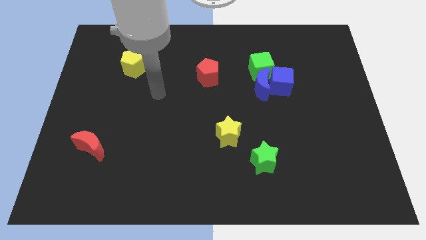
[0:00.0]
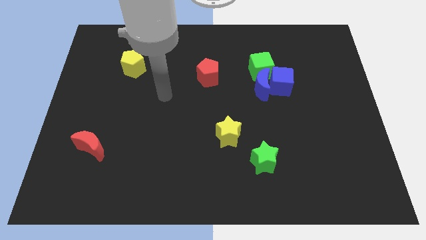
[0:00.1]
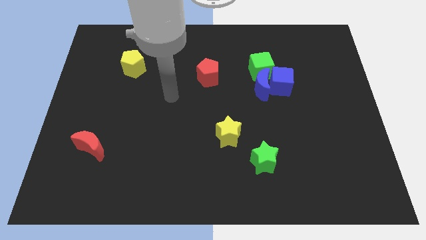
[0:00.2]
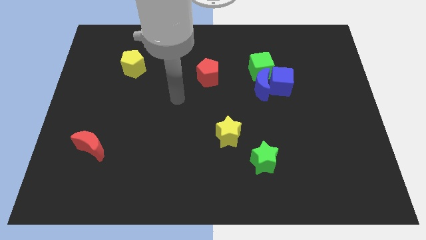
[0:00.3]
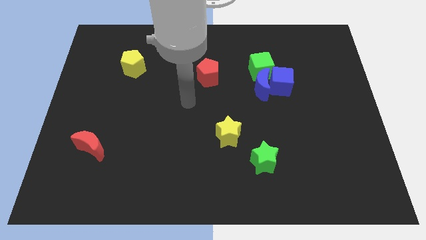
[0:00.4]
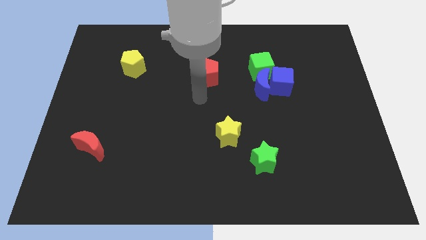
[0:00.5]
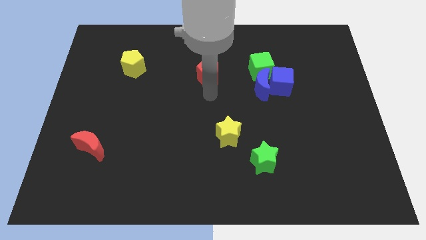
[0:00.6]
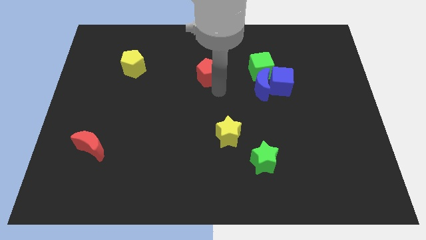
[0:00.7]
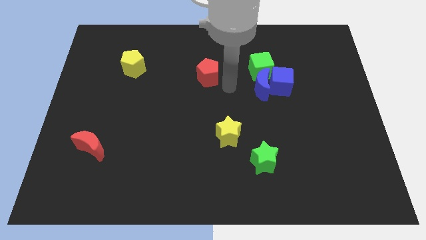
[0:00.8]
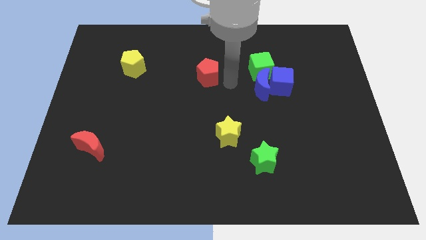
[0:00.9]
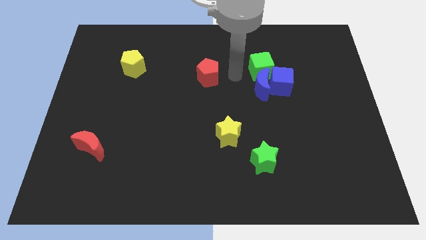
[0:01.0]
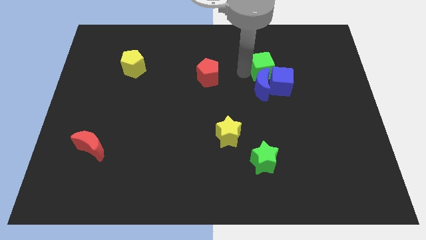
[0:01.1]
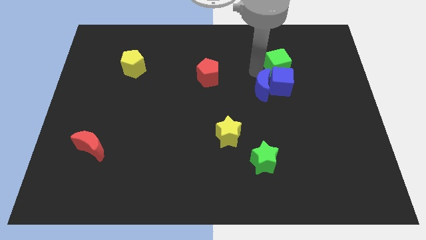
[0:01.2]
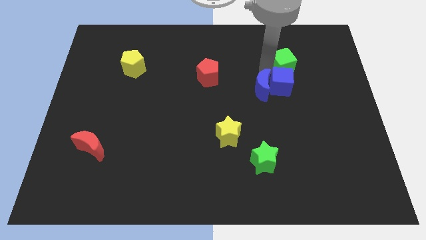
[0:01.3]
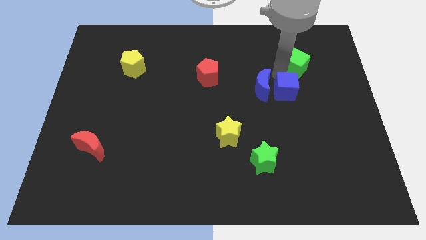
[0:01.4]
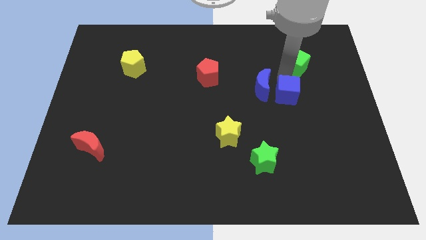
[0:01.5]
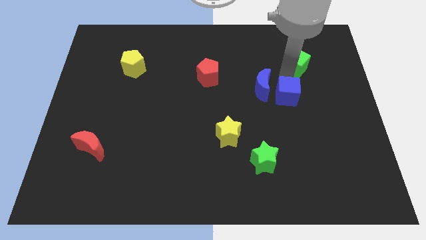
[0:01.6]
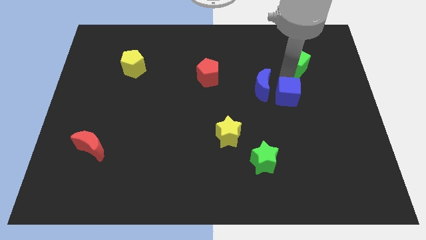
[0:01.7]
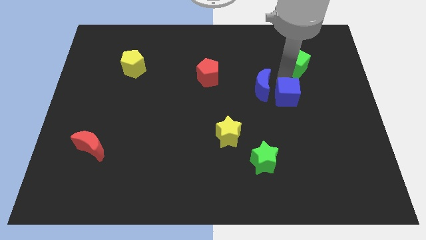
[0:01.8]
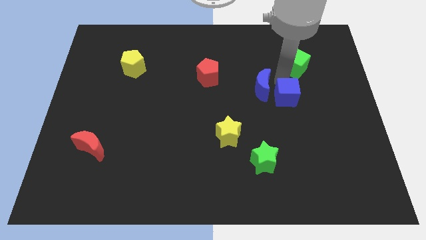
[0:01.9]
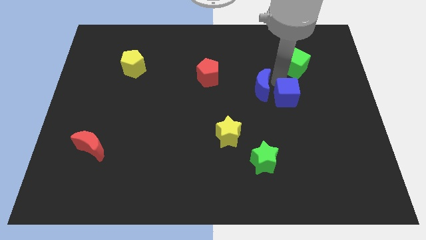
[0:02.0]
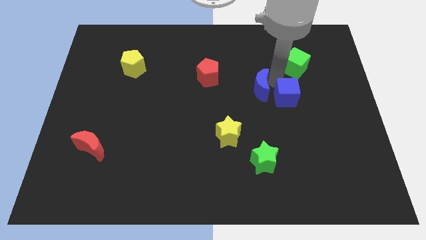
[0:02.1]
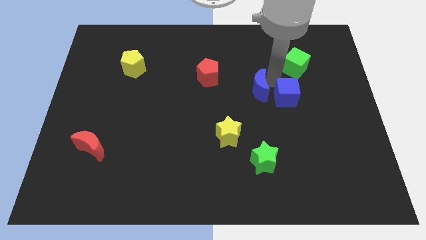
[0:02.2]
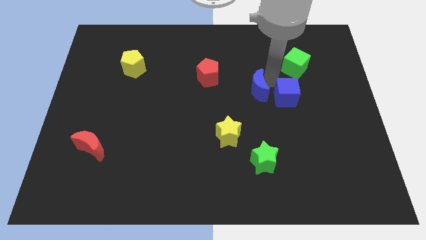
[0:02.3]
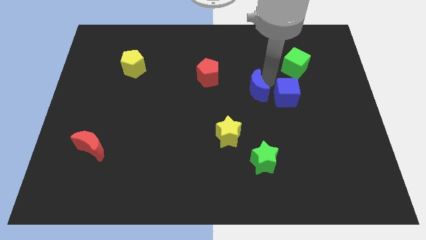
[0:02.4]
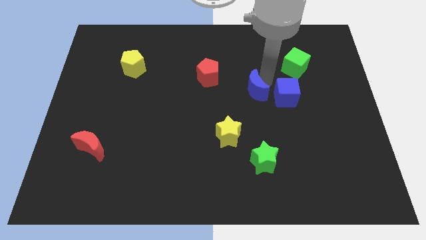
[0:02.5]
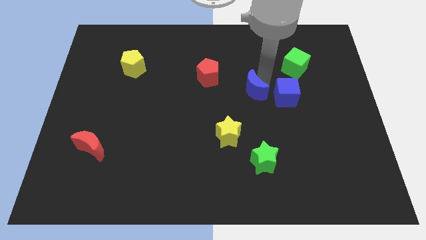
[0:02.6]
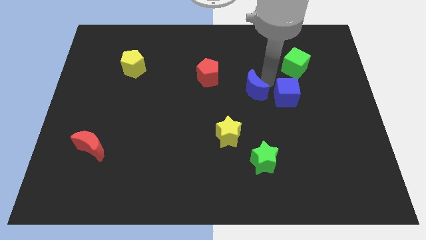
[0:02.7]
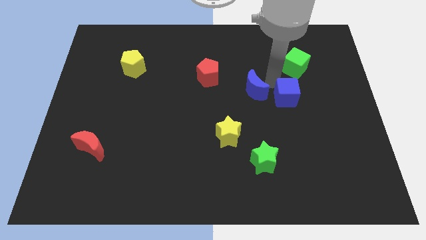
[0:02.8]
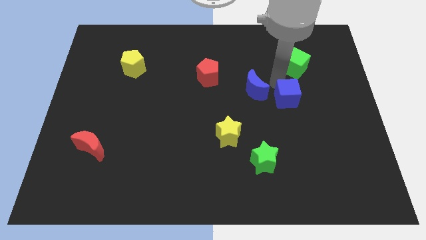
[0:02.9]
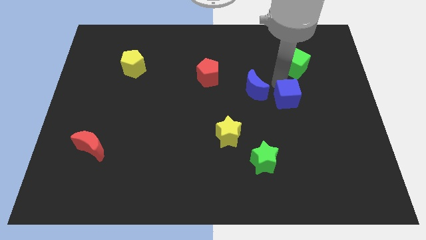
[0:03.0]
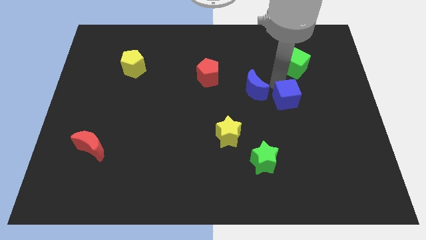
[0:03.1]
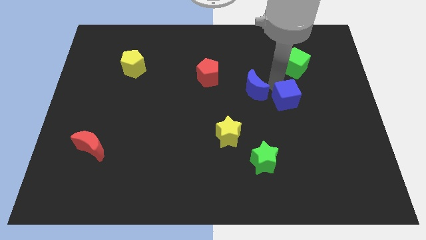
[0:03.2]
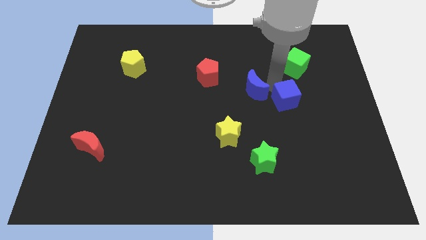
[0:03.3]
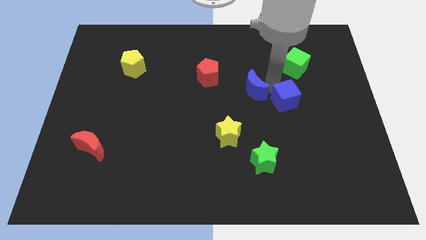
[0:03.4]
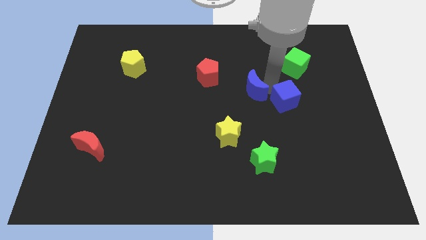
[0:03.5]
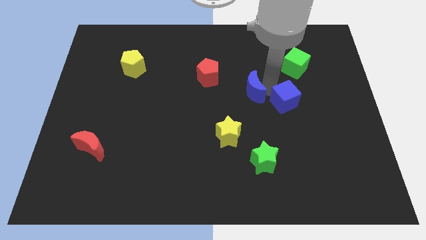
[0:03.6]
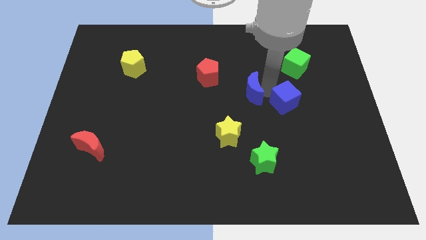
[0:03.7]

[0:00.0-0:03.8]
move the blue moon away from the blue cube and green cube

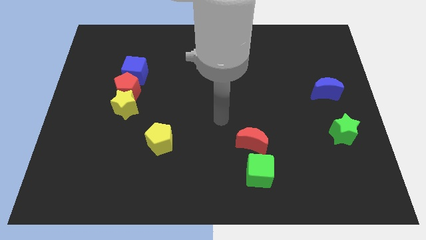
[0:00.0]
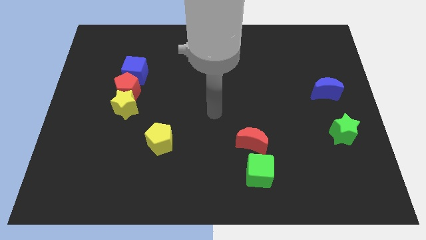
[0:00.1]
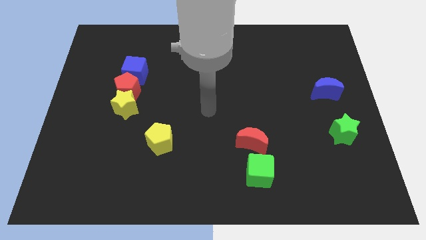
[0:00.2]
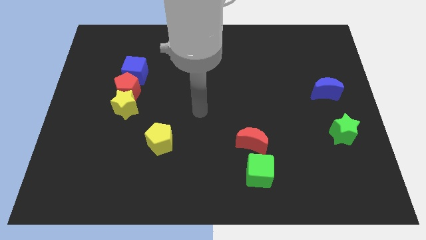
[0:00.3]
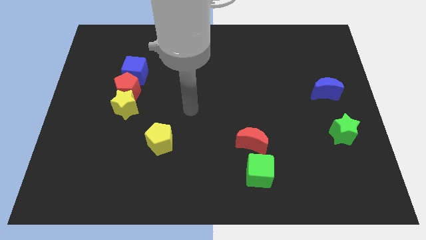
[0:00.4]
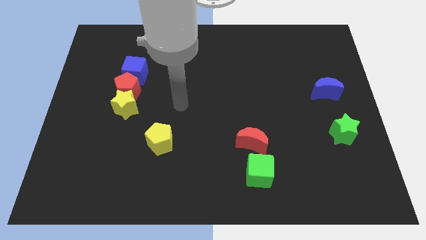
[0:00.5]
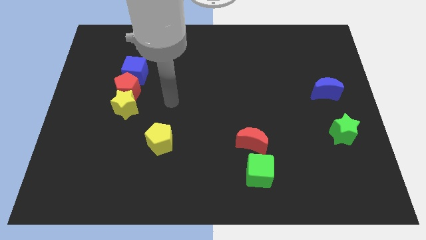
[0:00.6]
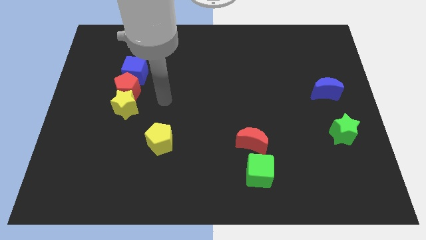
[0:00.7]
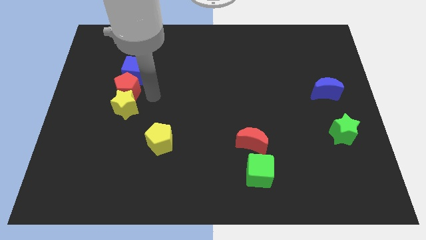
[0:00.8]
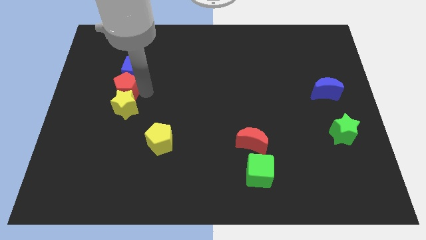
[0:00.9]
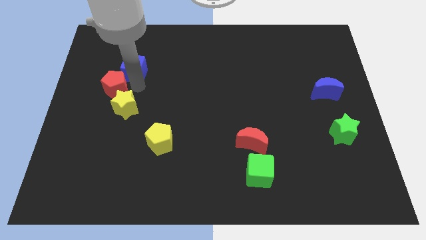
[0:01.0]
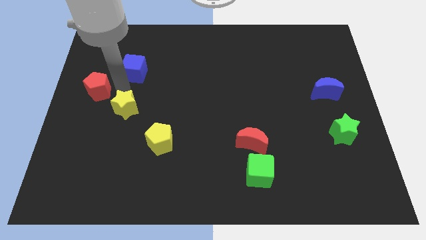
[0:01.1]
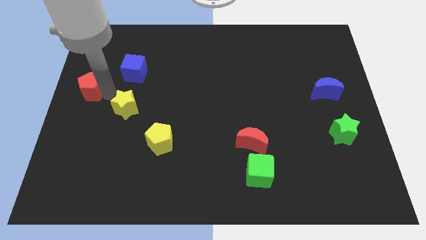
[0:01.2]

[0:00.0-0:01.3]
separate the yellow star from the red pentagon

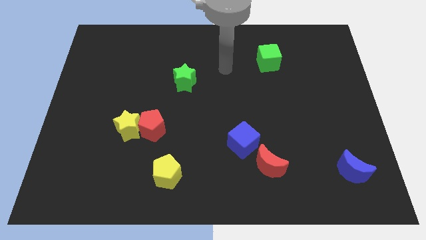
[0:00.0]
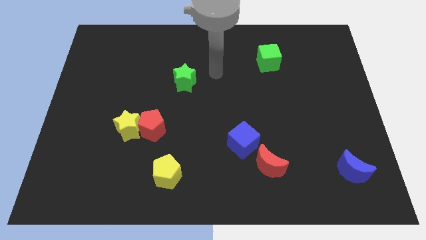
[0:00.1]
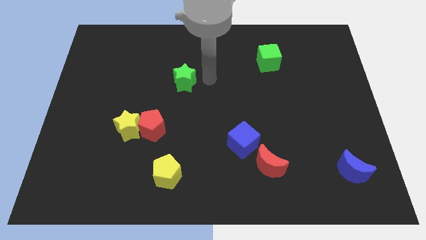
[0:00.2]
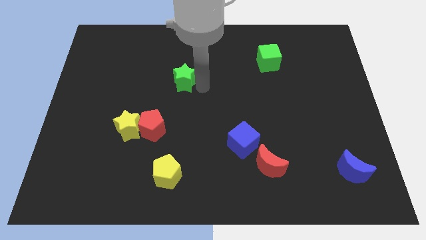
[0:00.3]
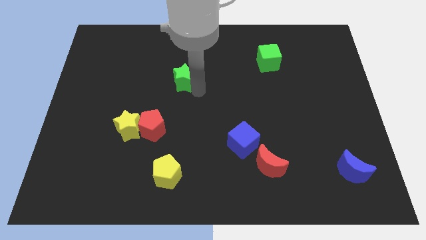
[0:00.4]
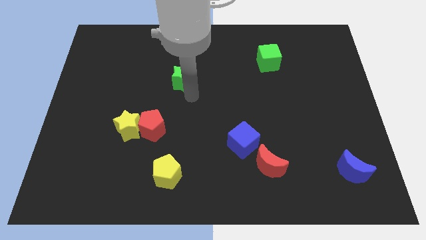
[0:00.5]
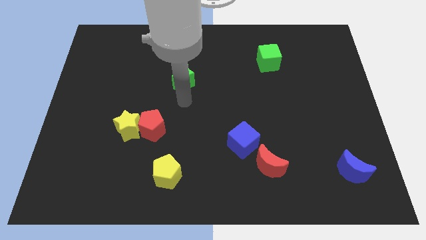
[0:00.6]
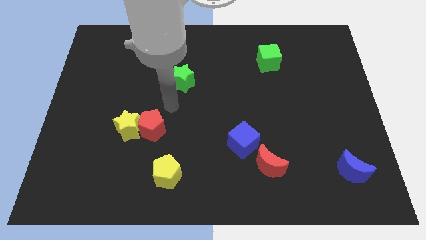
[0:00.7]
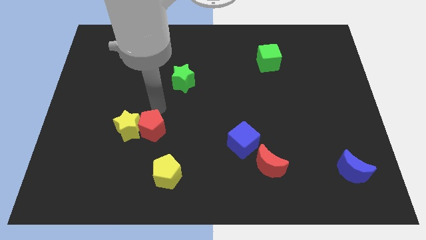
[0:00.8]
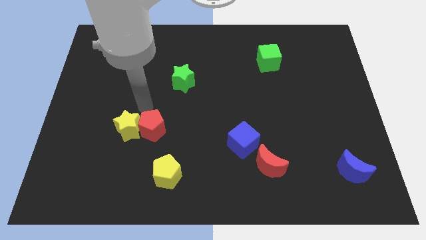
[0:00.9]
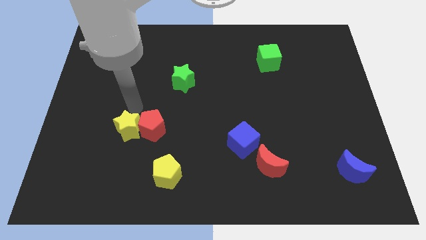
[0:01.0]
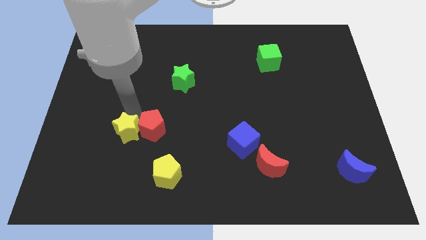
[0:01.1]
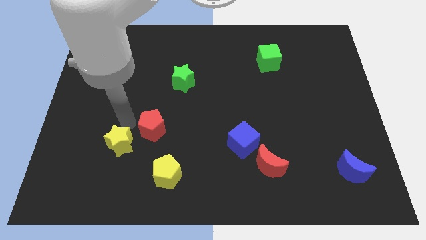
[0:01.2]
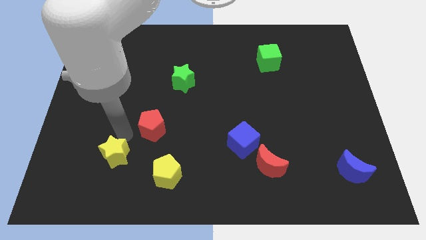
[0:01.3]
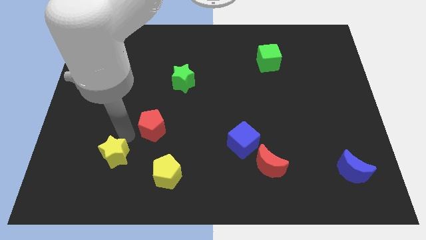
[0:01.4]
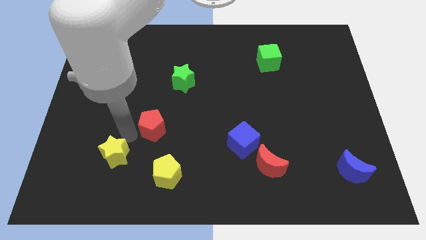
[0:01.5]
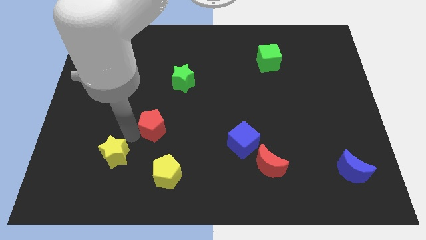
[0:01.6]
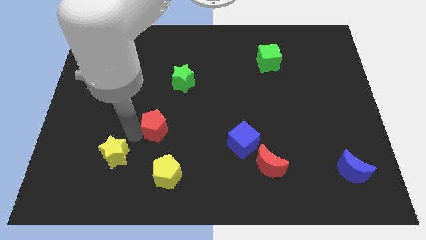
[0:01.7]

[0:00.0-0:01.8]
move the red pentagon away from the yellow star

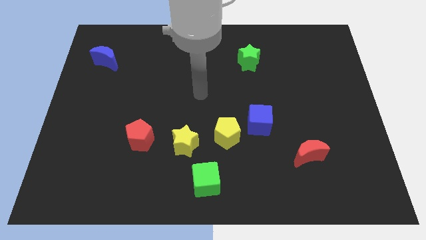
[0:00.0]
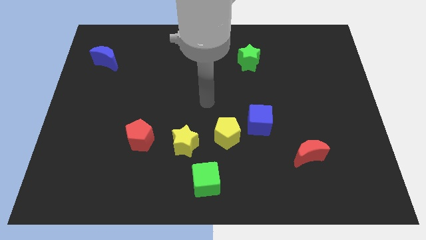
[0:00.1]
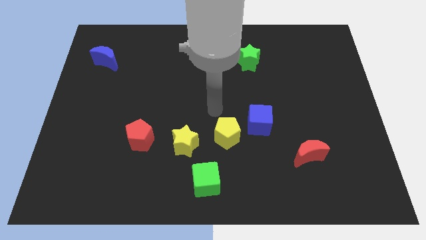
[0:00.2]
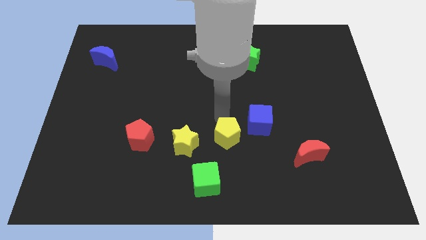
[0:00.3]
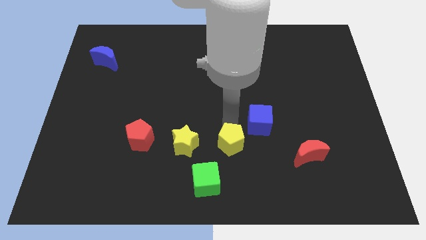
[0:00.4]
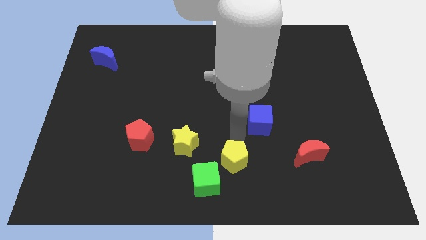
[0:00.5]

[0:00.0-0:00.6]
separate the blue cube from the yellow pentagon

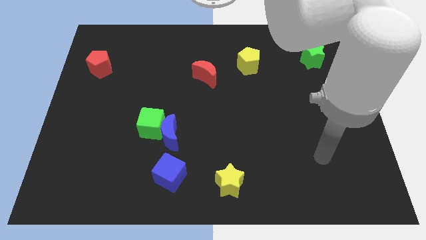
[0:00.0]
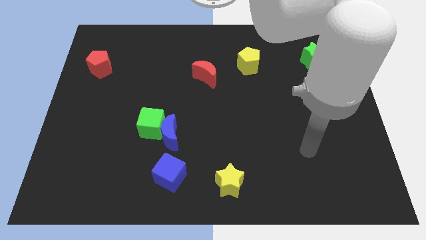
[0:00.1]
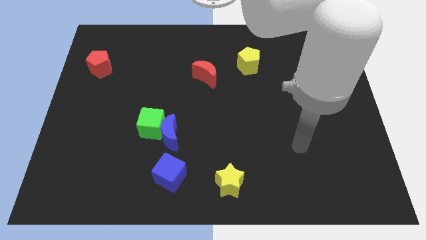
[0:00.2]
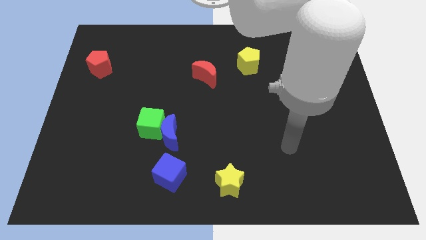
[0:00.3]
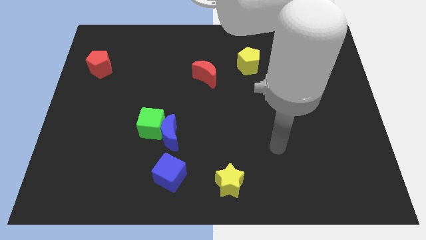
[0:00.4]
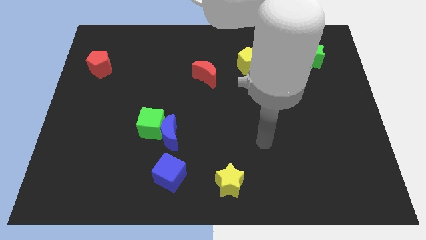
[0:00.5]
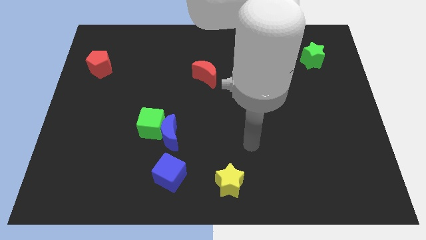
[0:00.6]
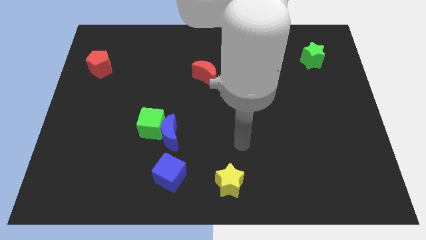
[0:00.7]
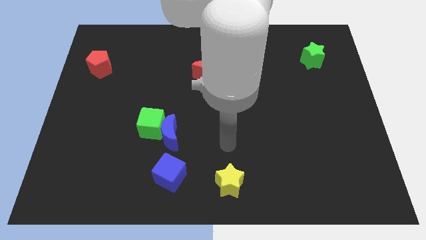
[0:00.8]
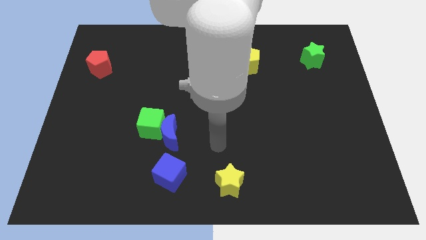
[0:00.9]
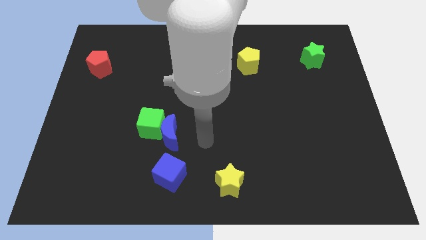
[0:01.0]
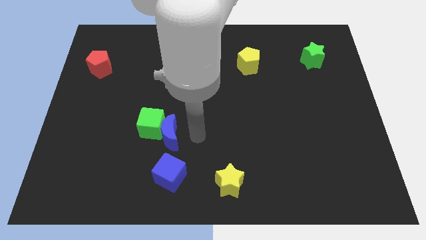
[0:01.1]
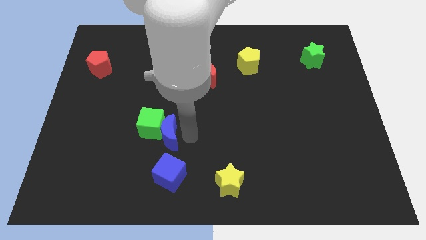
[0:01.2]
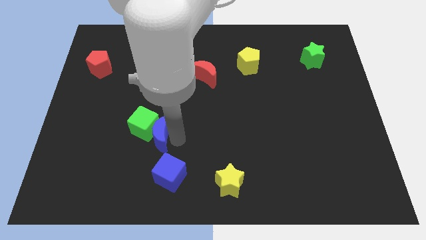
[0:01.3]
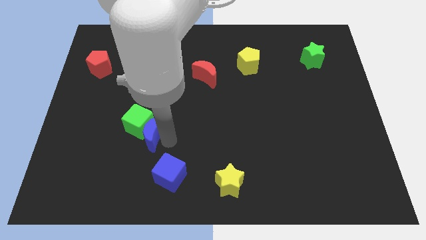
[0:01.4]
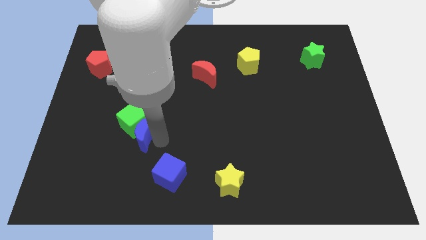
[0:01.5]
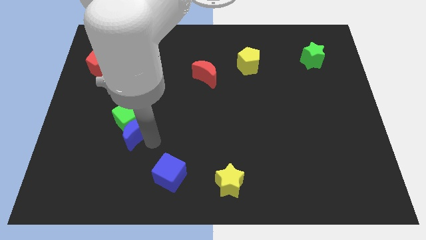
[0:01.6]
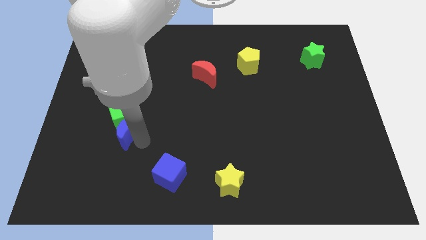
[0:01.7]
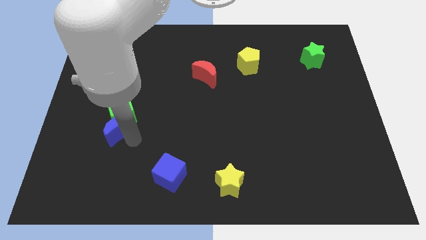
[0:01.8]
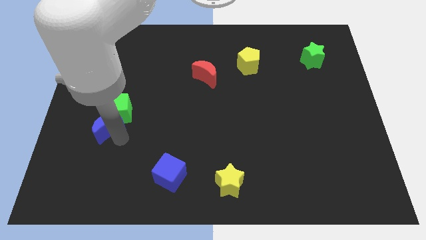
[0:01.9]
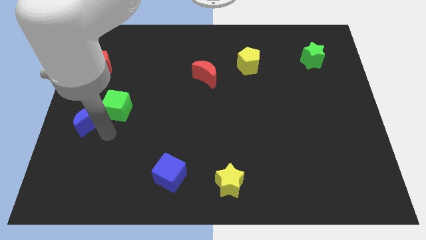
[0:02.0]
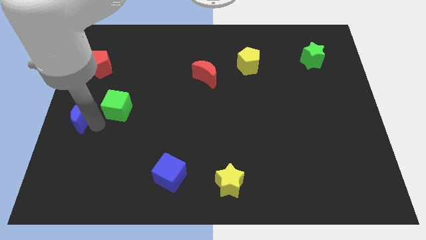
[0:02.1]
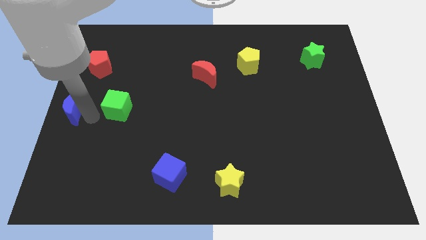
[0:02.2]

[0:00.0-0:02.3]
move the green cube away from the blue moon
